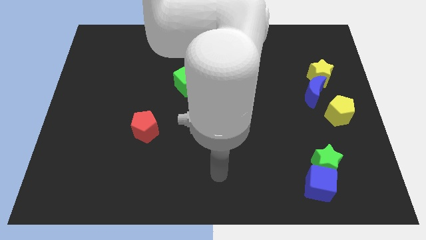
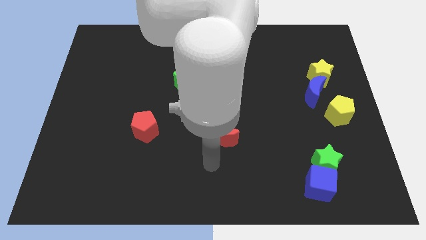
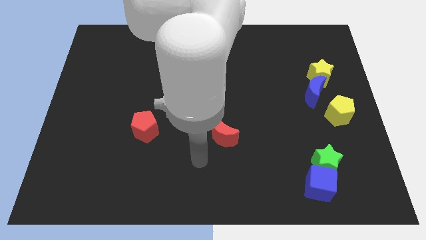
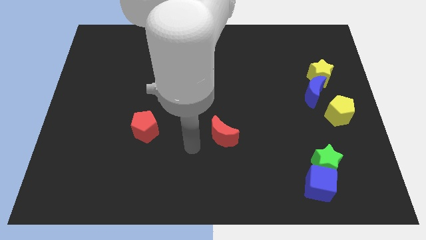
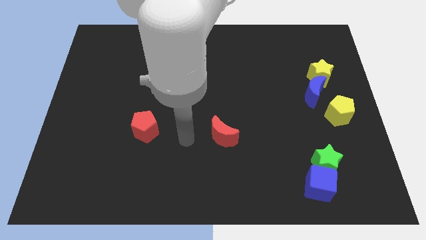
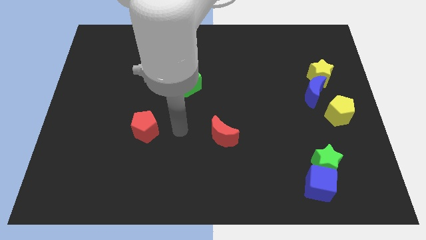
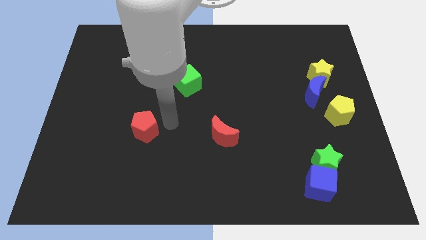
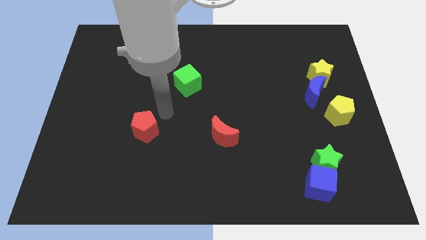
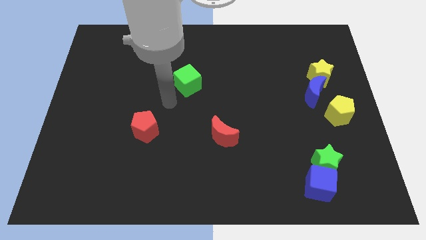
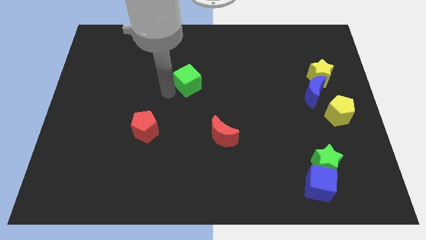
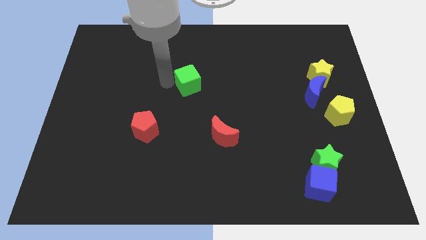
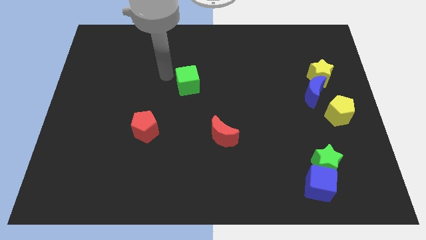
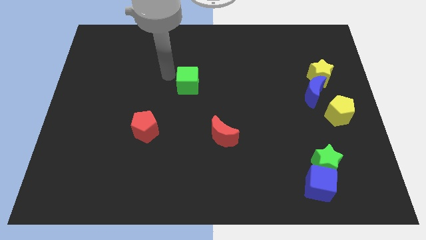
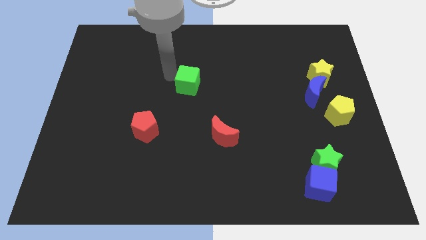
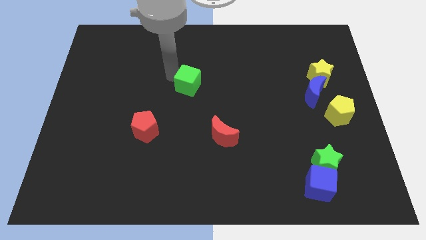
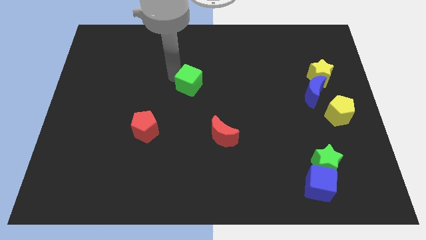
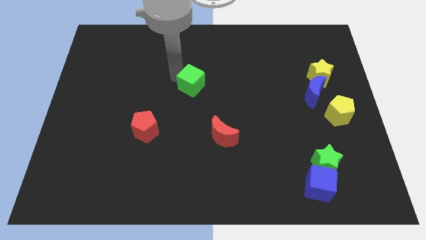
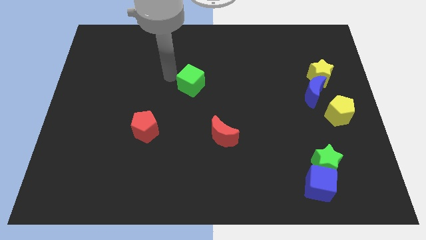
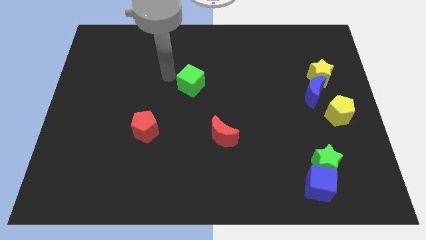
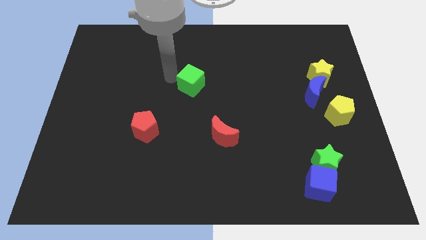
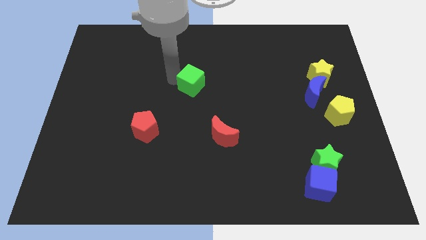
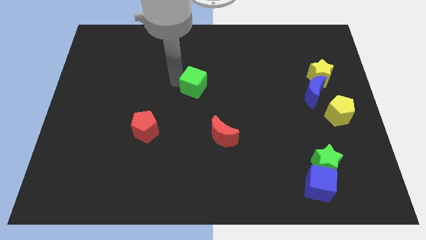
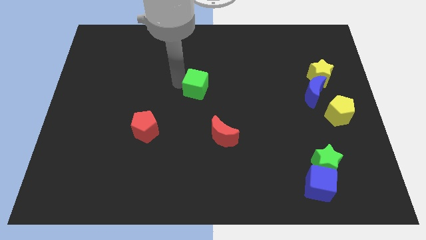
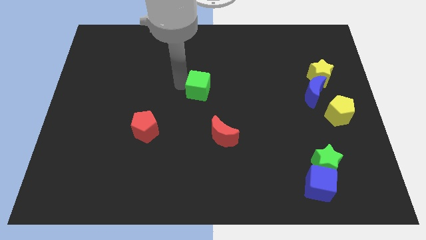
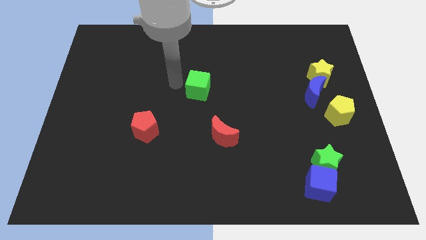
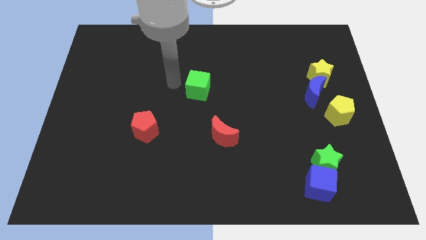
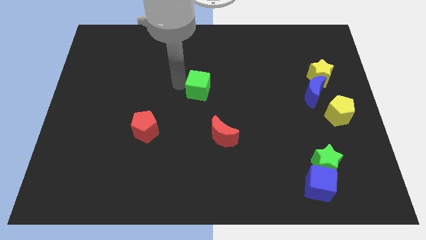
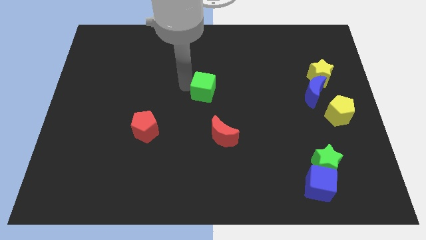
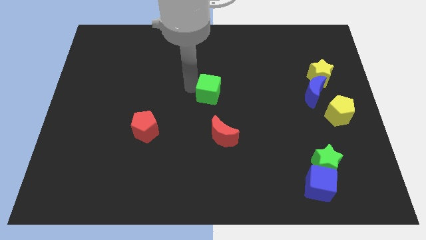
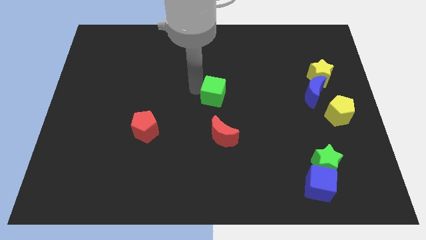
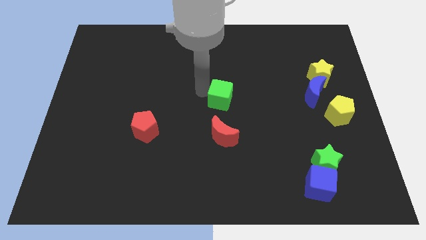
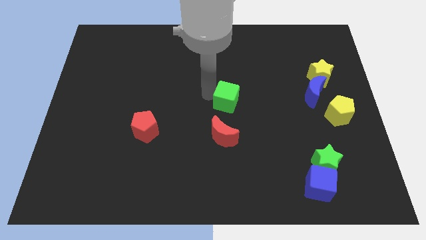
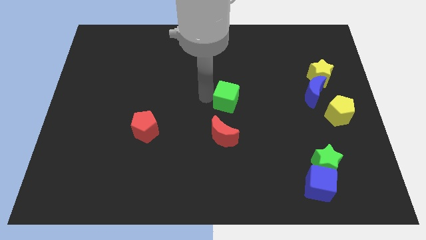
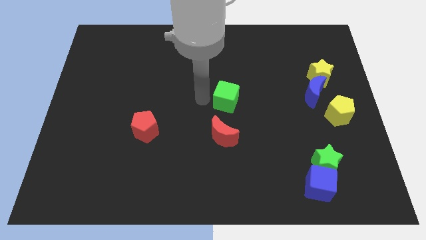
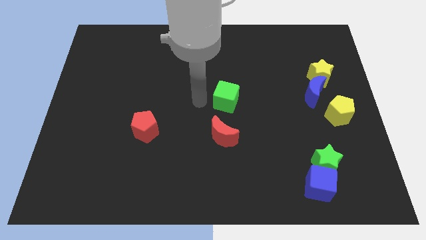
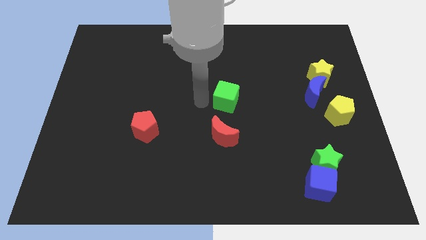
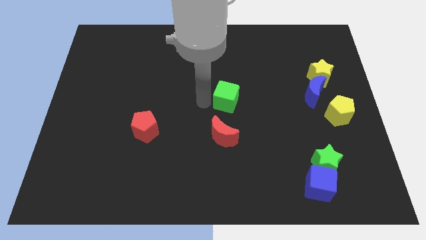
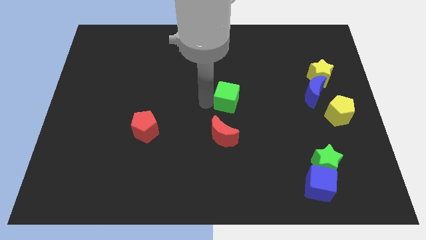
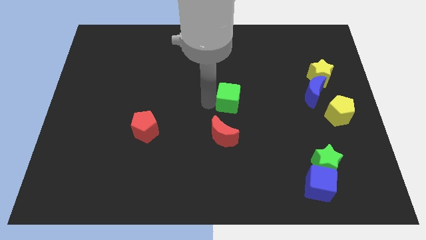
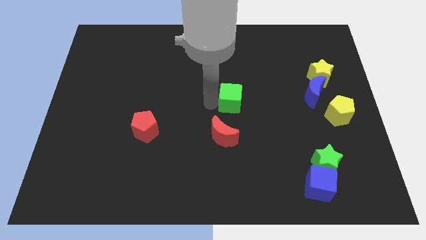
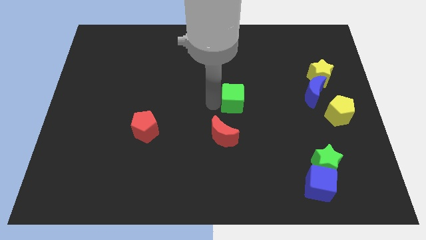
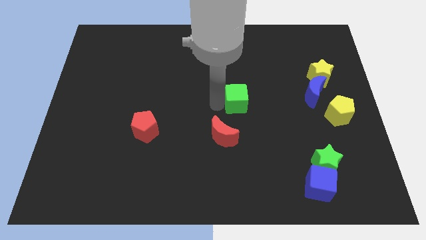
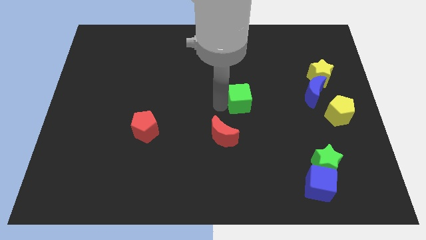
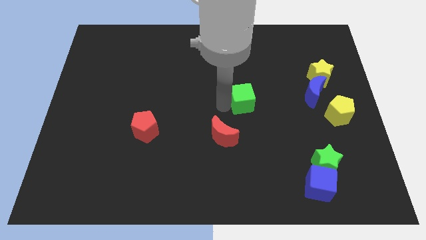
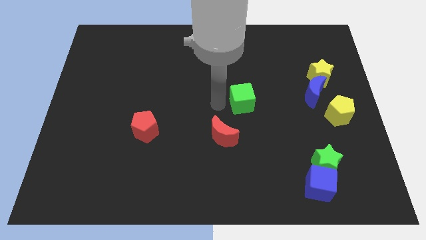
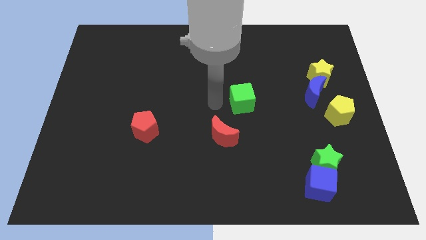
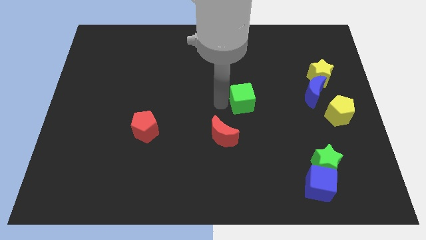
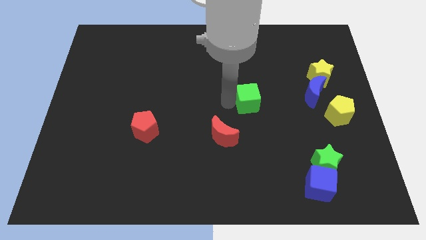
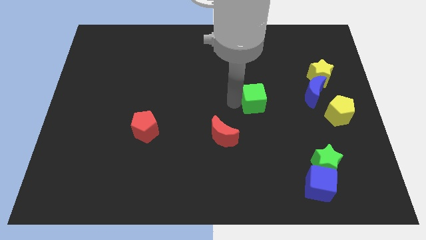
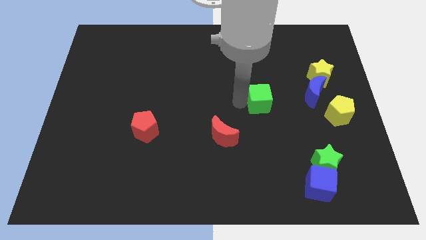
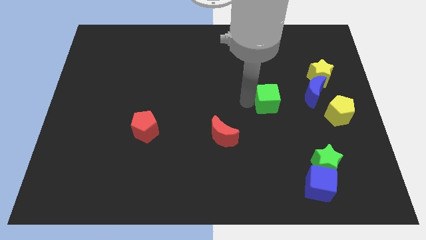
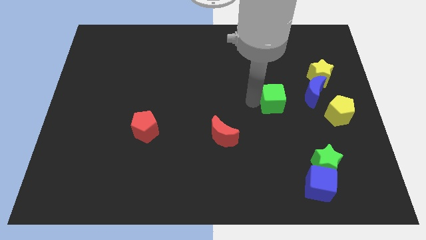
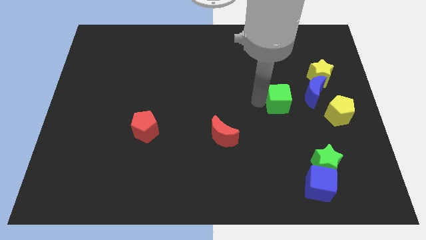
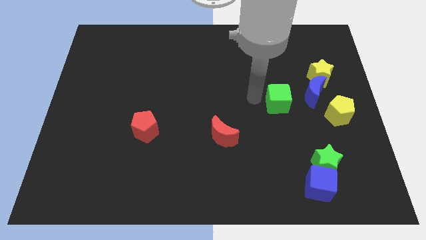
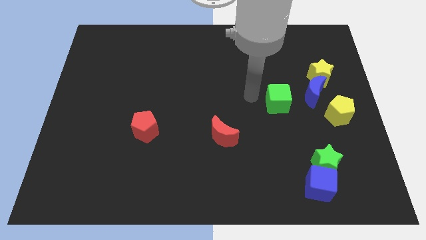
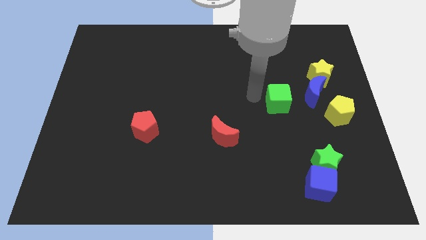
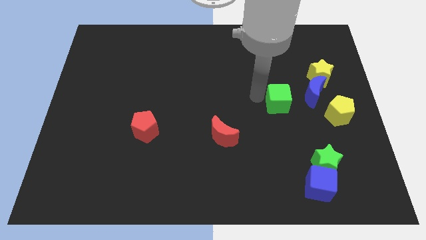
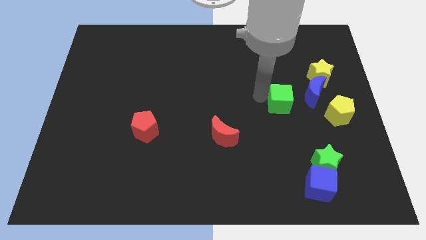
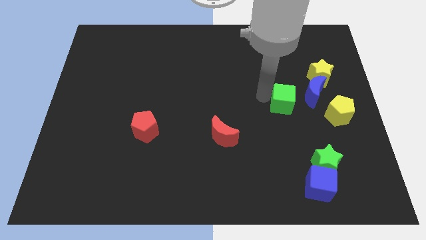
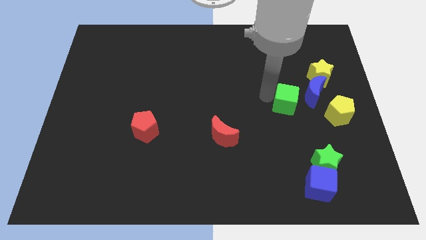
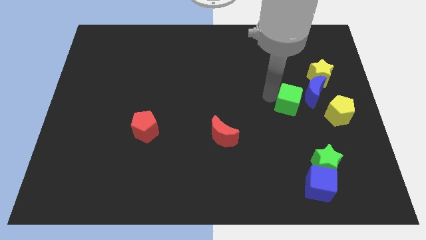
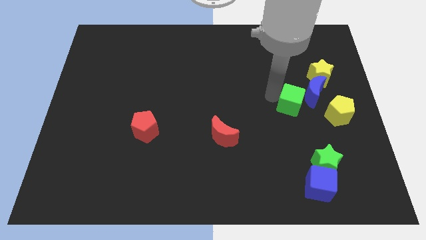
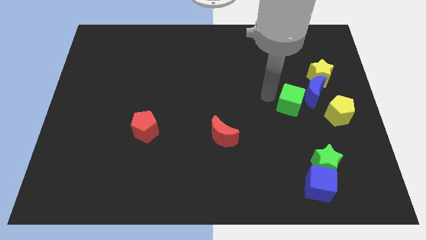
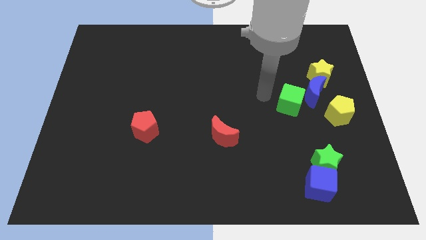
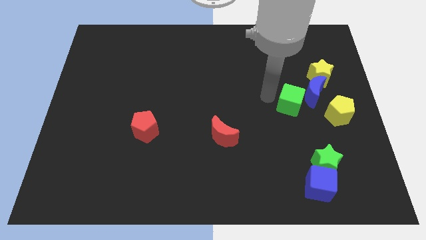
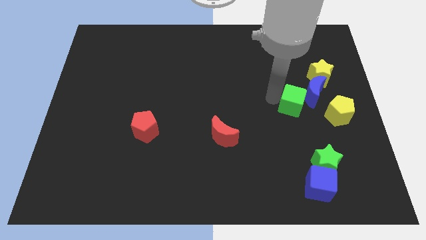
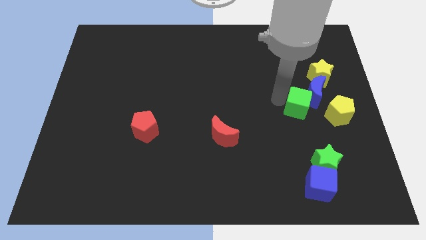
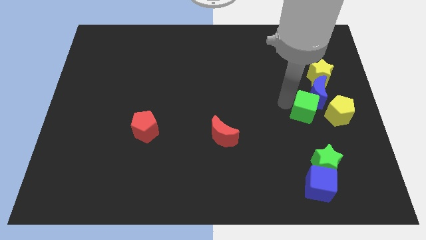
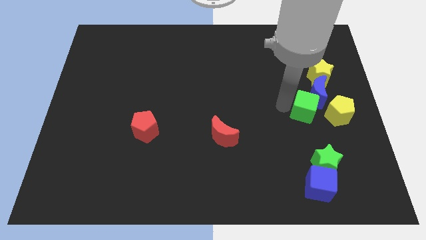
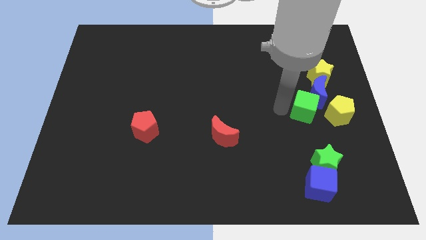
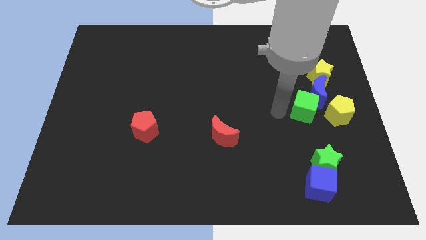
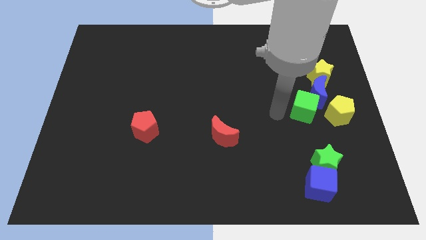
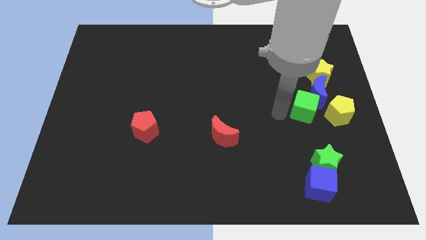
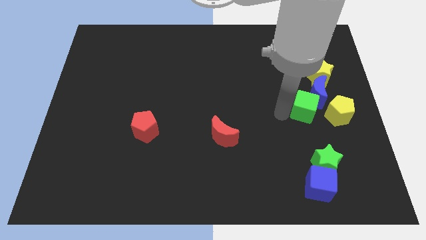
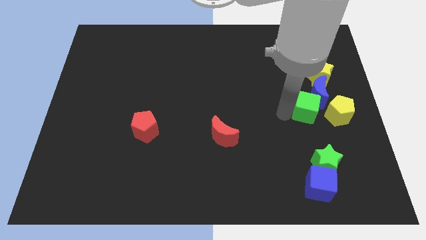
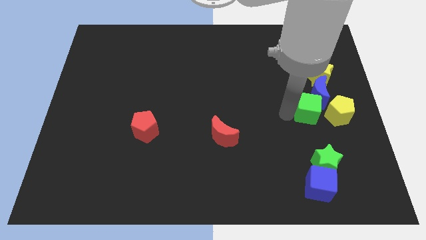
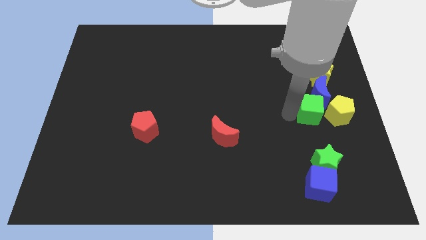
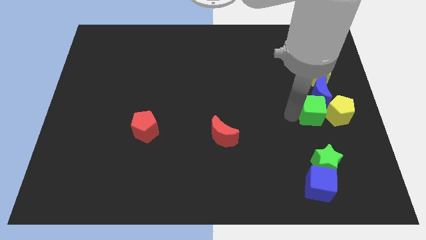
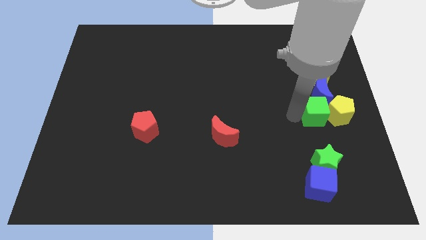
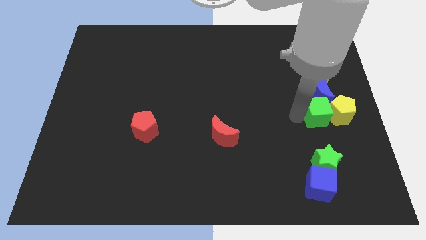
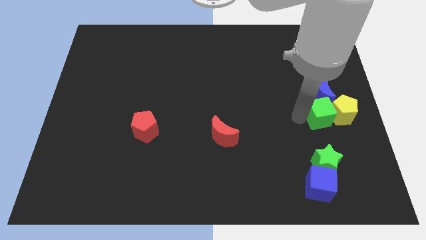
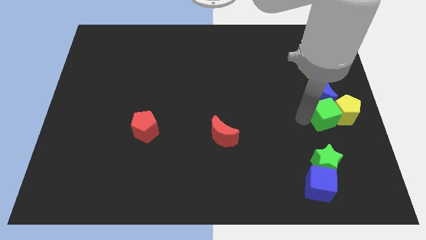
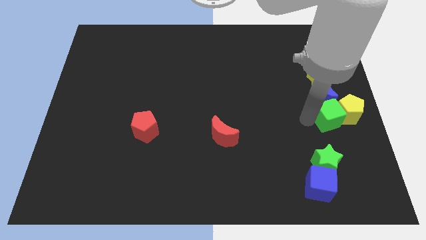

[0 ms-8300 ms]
push the green cube to the center right
